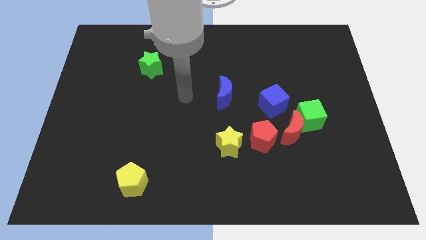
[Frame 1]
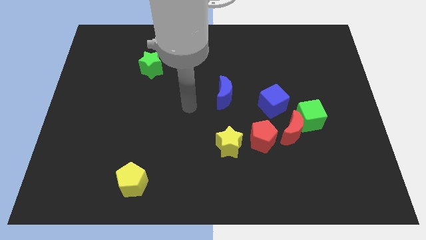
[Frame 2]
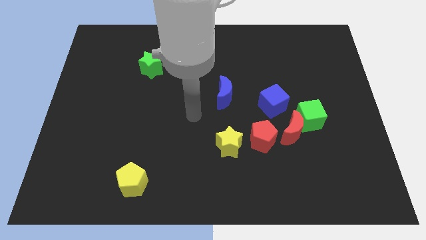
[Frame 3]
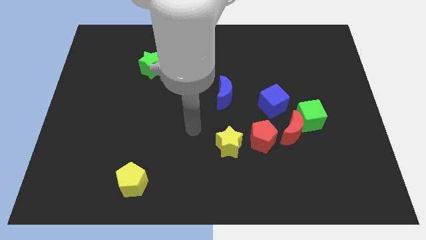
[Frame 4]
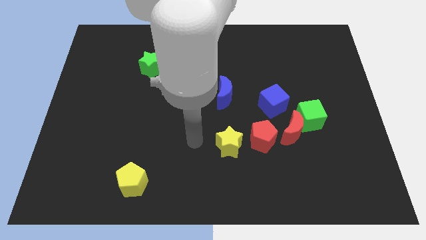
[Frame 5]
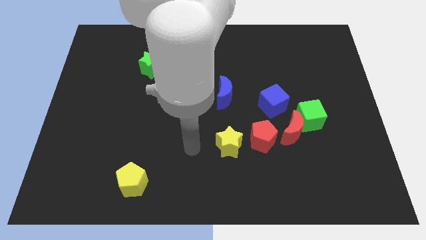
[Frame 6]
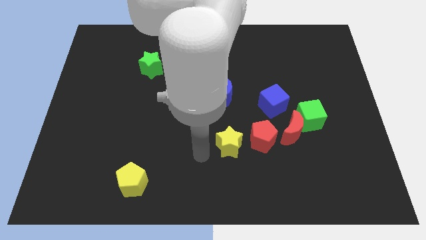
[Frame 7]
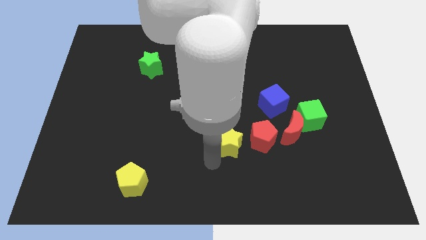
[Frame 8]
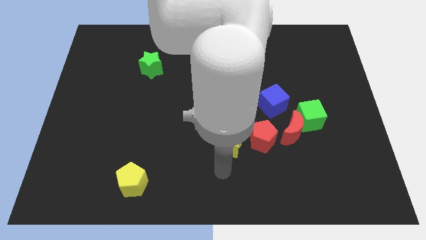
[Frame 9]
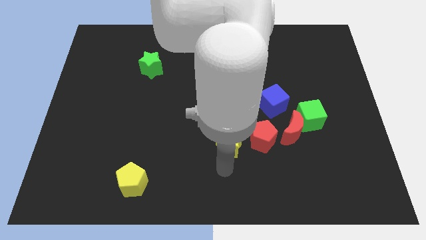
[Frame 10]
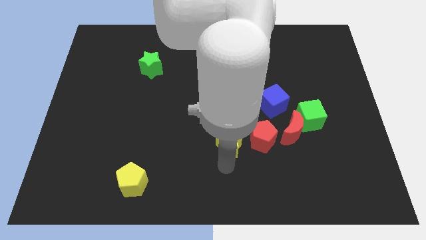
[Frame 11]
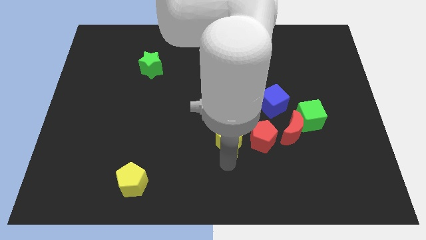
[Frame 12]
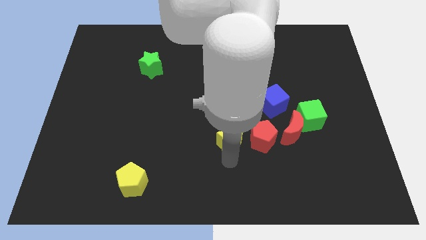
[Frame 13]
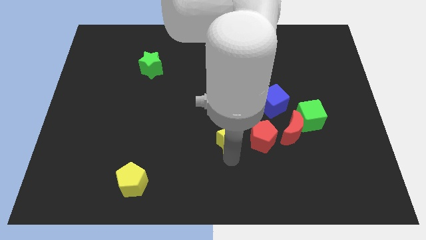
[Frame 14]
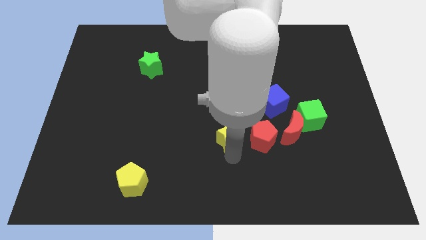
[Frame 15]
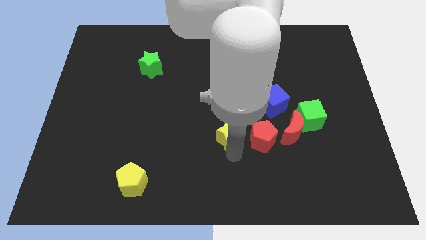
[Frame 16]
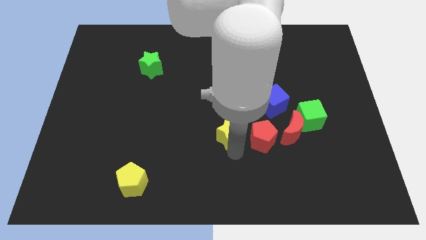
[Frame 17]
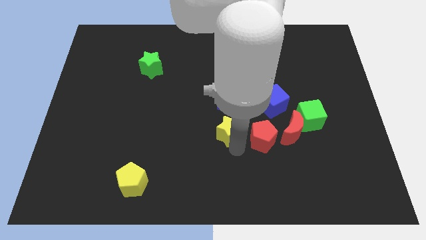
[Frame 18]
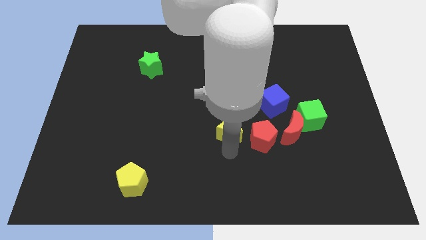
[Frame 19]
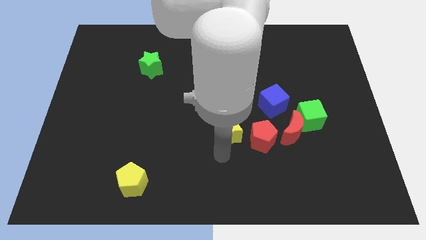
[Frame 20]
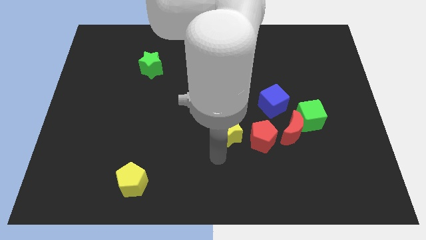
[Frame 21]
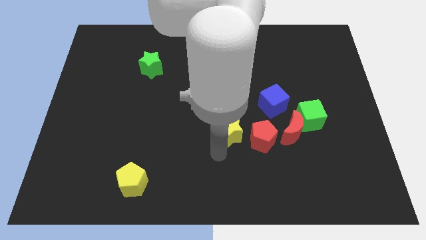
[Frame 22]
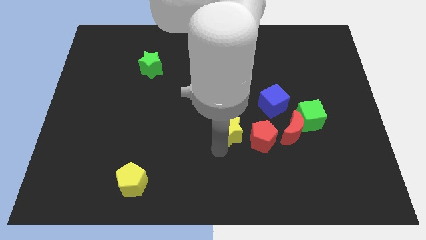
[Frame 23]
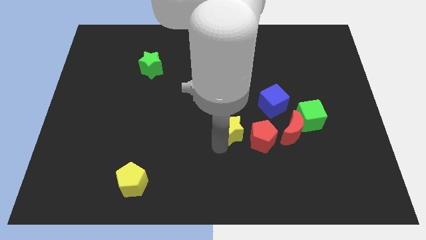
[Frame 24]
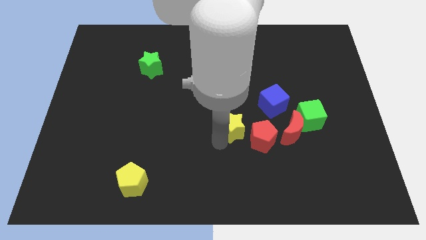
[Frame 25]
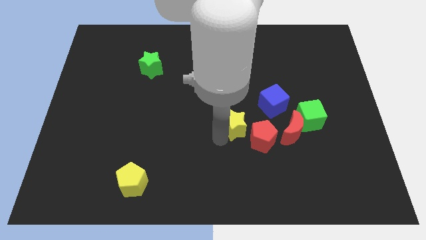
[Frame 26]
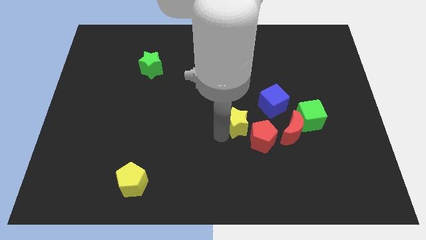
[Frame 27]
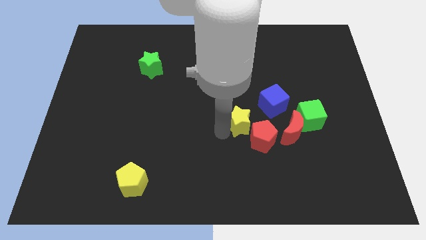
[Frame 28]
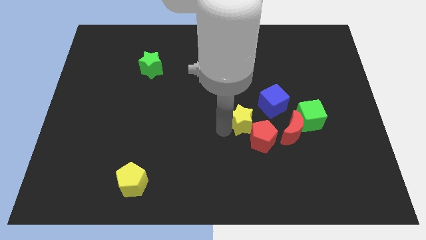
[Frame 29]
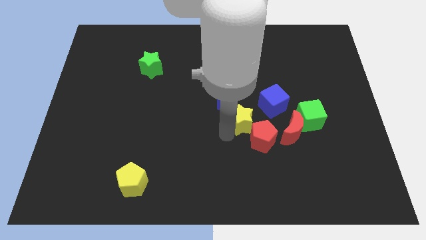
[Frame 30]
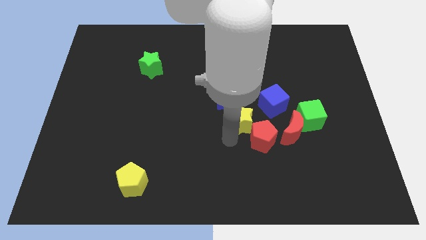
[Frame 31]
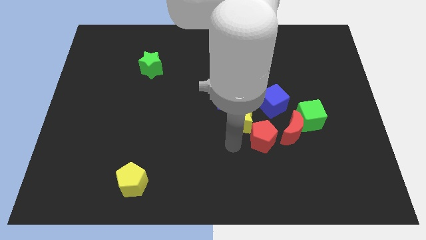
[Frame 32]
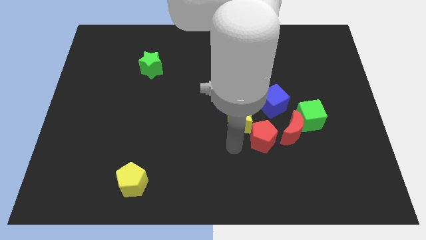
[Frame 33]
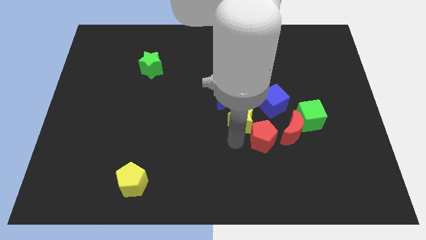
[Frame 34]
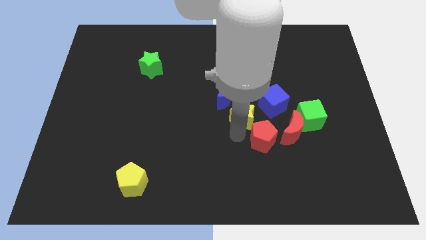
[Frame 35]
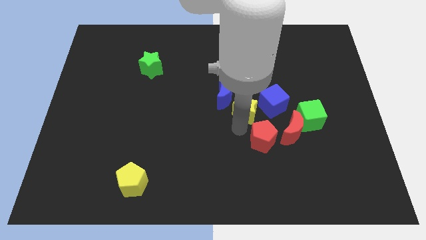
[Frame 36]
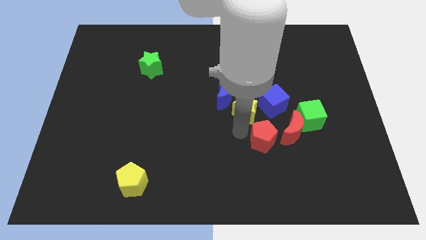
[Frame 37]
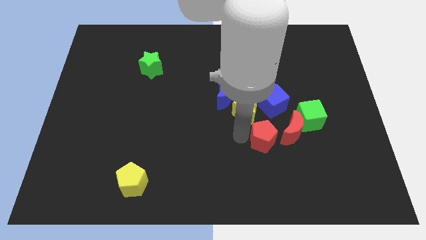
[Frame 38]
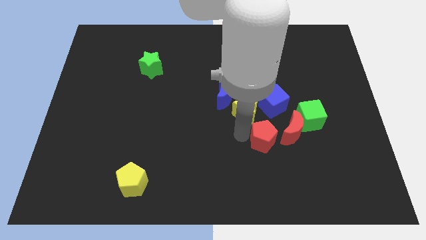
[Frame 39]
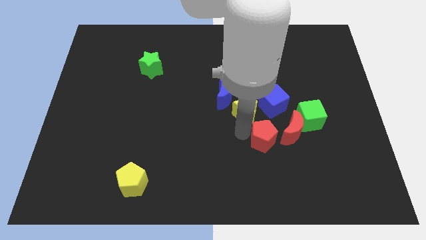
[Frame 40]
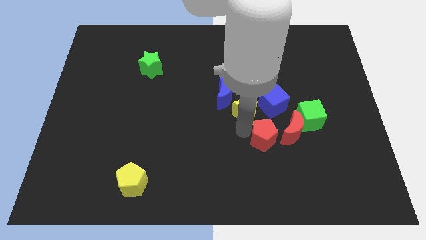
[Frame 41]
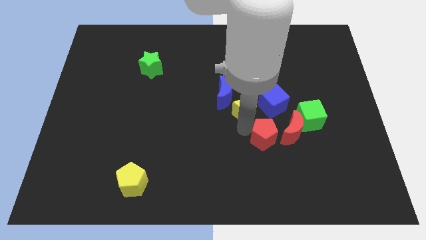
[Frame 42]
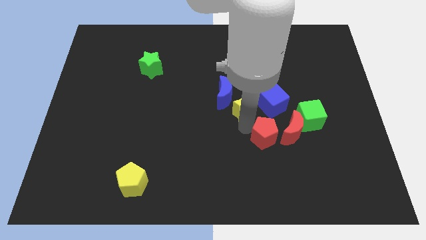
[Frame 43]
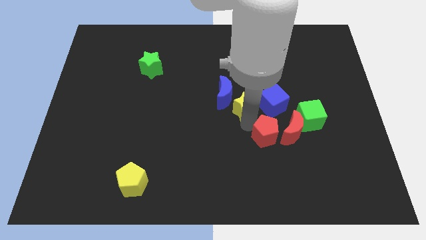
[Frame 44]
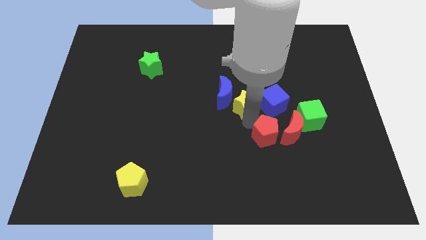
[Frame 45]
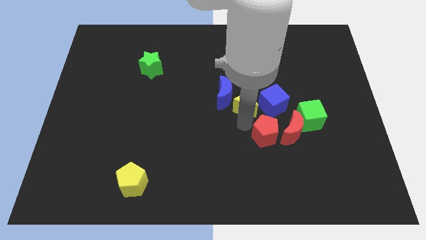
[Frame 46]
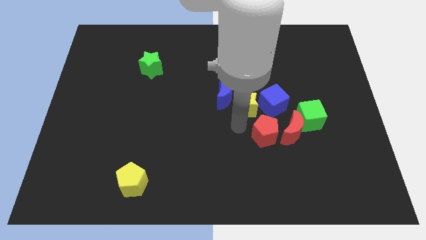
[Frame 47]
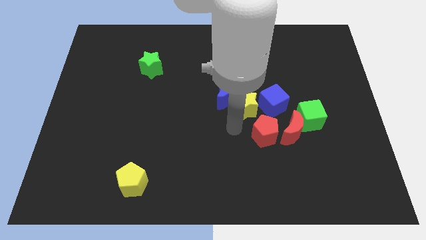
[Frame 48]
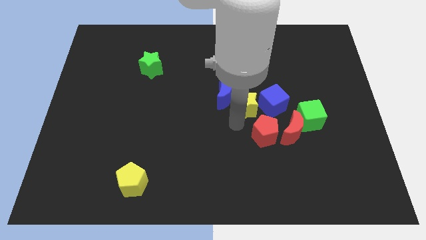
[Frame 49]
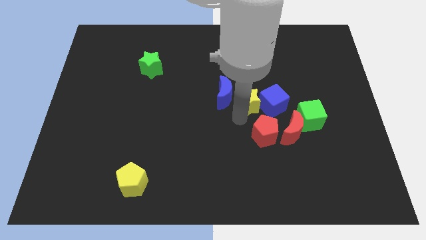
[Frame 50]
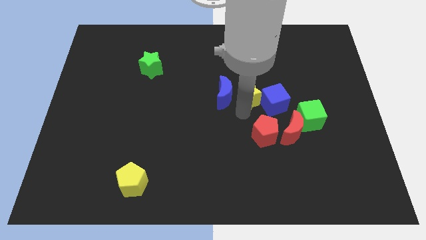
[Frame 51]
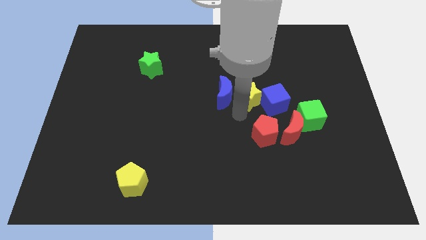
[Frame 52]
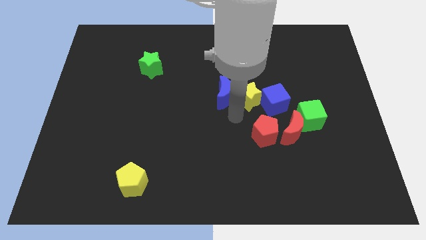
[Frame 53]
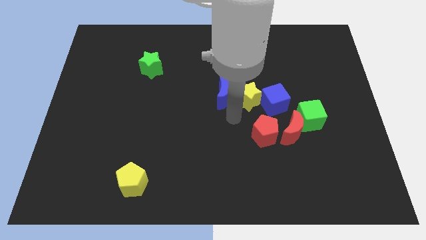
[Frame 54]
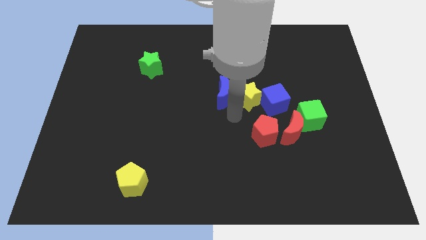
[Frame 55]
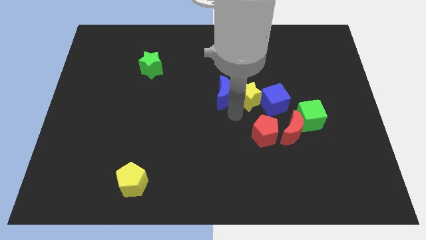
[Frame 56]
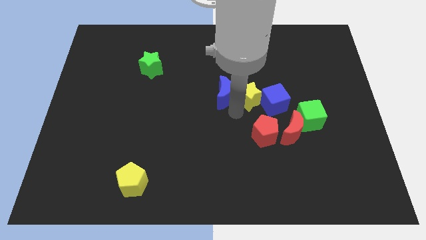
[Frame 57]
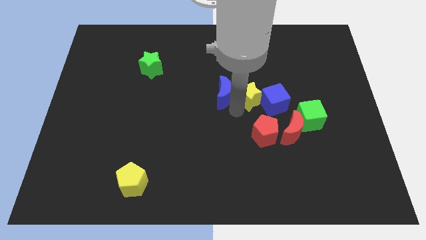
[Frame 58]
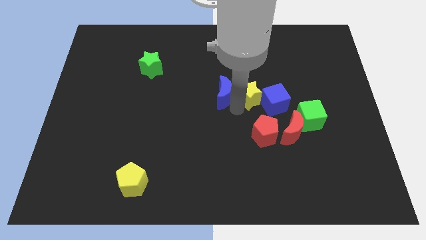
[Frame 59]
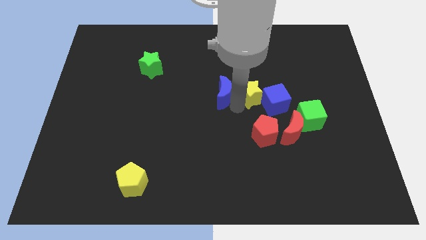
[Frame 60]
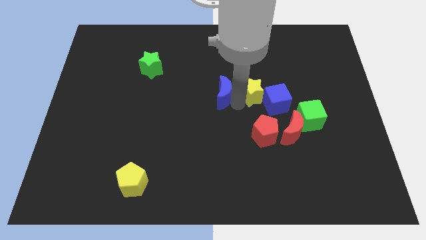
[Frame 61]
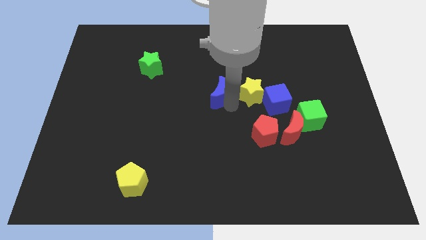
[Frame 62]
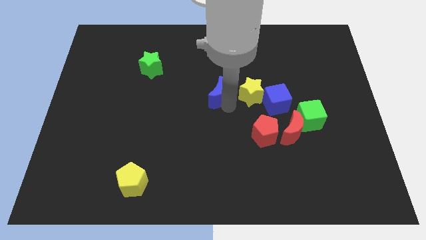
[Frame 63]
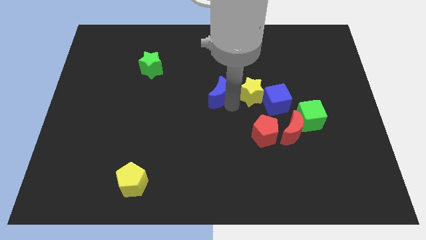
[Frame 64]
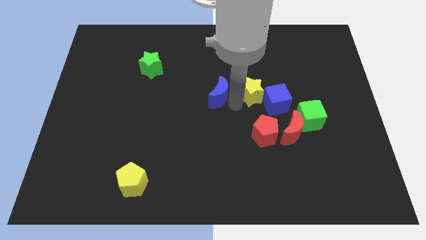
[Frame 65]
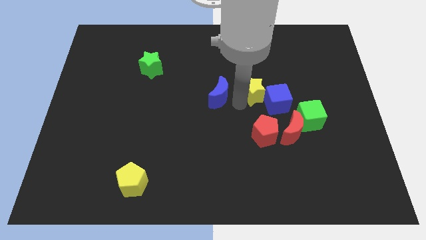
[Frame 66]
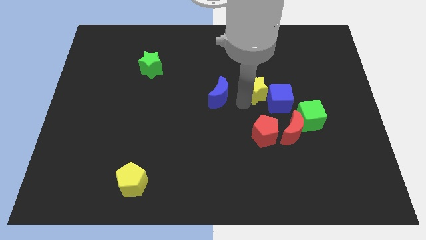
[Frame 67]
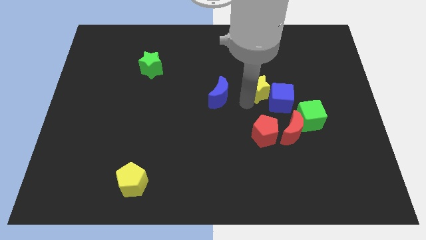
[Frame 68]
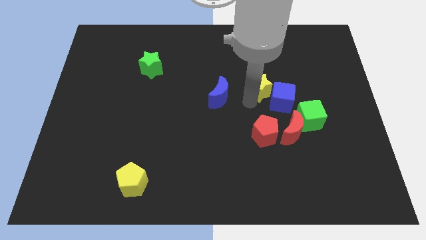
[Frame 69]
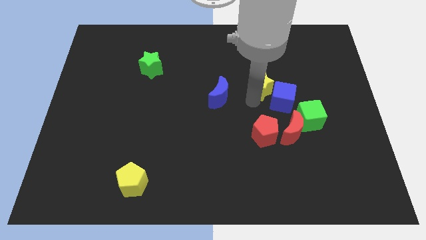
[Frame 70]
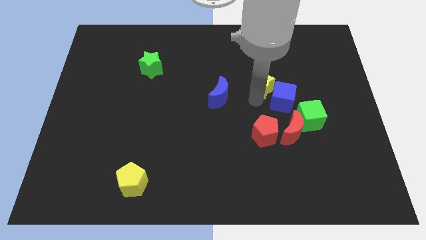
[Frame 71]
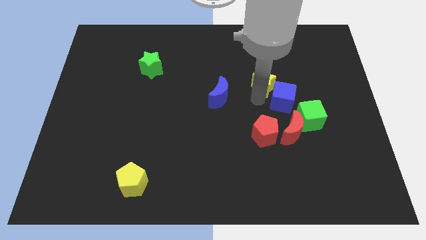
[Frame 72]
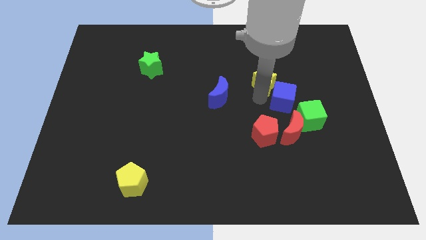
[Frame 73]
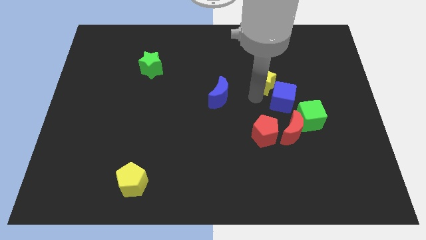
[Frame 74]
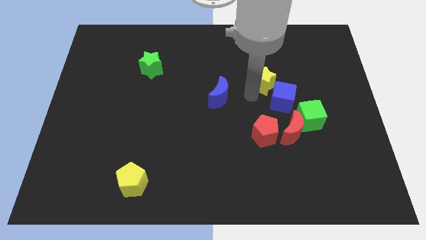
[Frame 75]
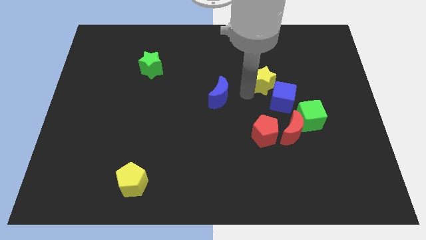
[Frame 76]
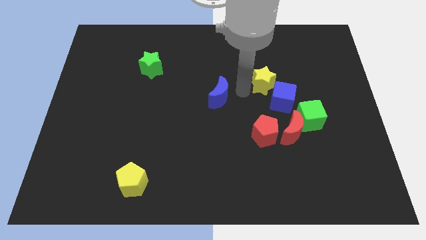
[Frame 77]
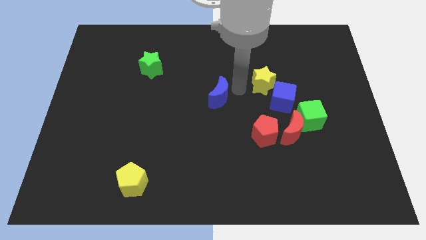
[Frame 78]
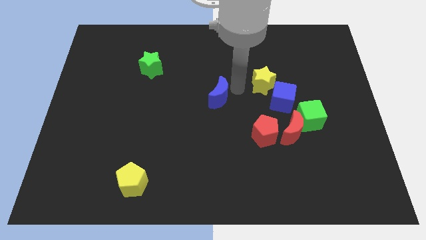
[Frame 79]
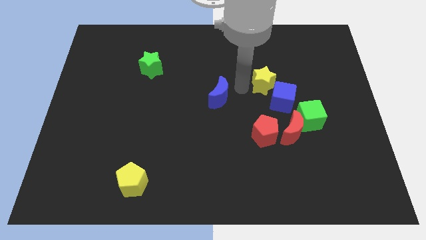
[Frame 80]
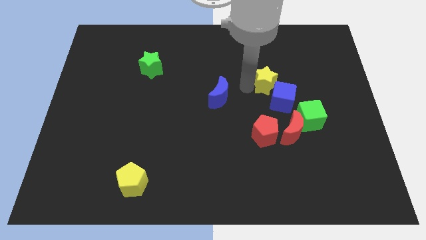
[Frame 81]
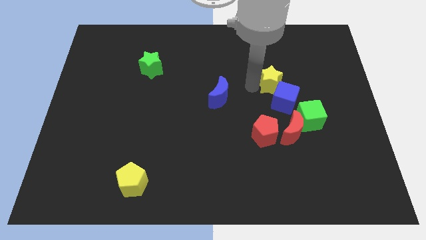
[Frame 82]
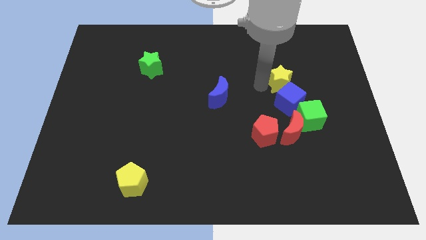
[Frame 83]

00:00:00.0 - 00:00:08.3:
move the yellow star diagonally up and right
